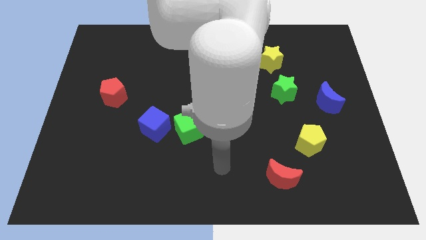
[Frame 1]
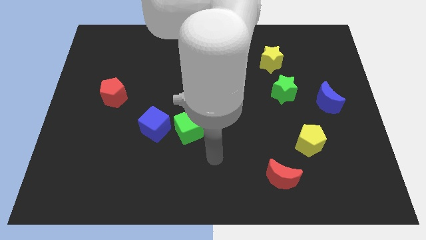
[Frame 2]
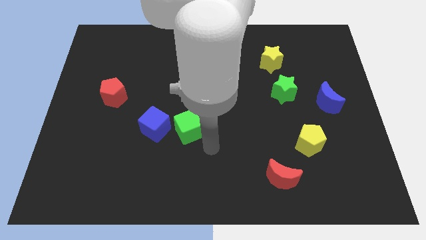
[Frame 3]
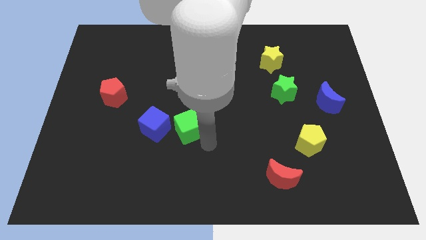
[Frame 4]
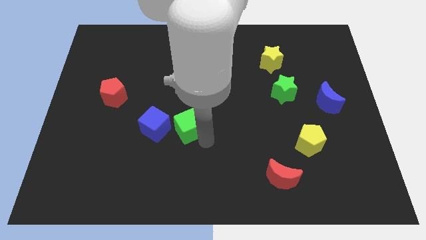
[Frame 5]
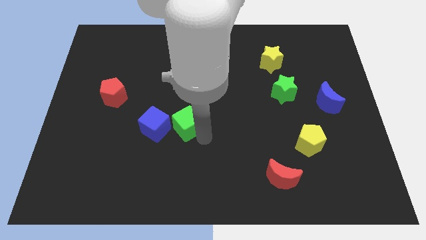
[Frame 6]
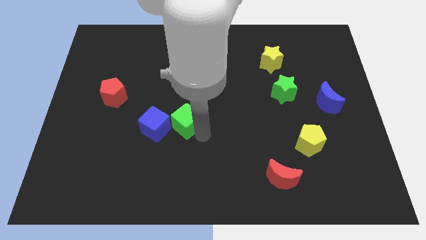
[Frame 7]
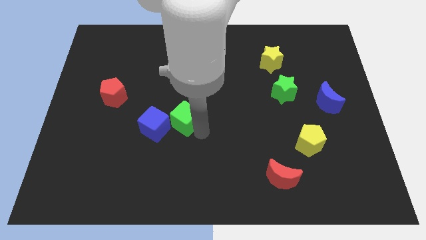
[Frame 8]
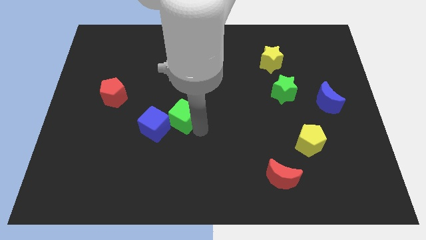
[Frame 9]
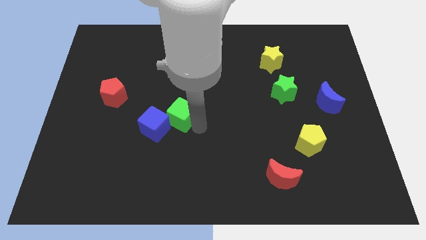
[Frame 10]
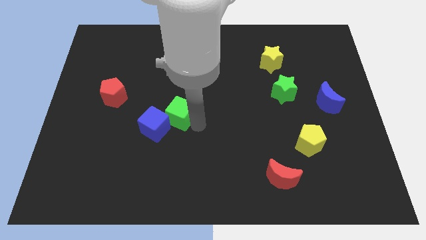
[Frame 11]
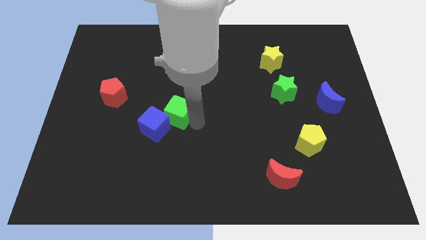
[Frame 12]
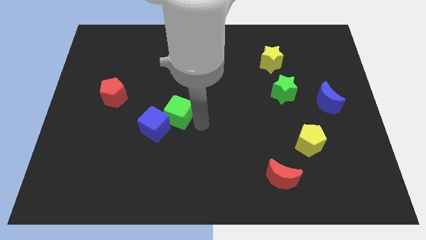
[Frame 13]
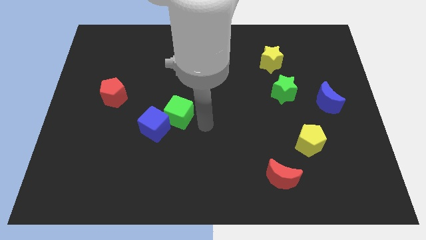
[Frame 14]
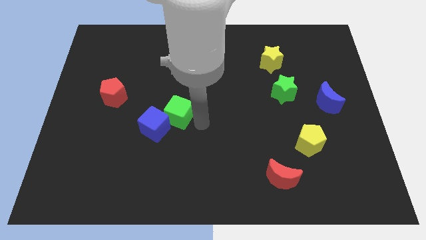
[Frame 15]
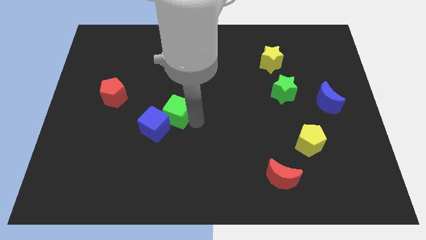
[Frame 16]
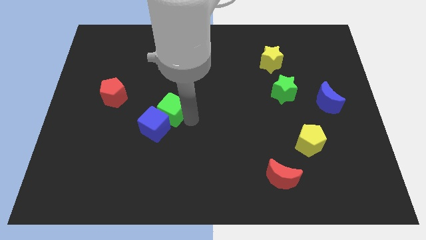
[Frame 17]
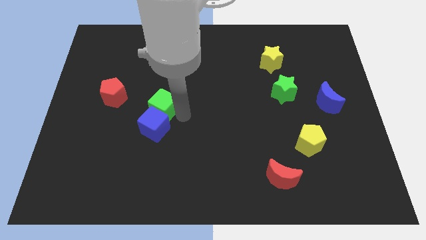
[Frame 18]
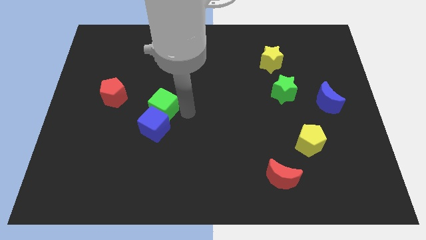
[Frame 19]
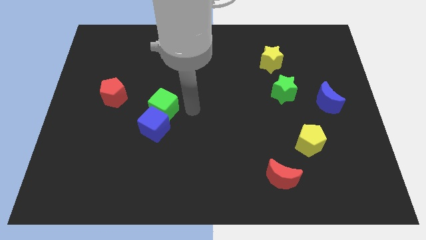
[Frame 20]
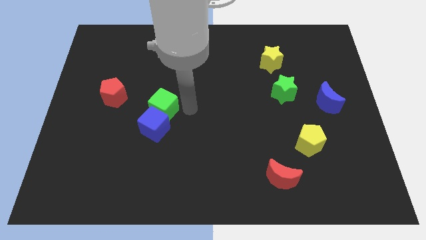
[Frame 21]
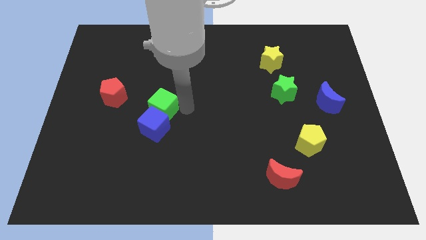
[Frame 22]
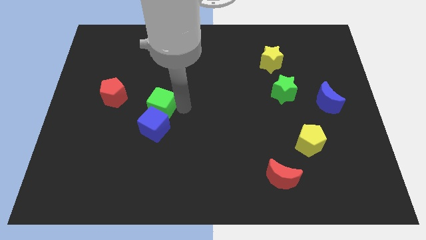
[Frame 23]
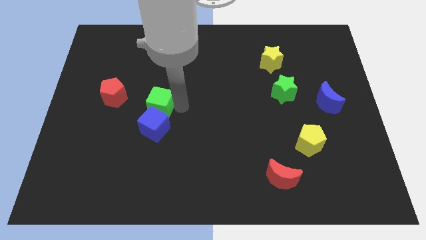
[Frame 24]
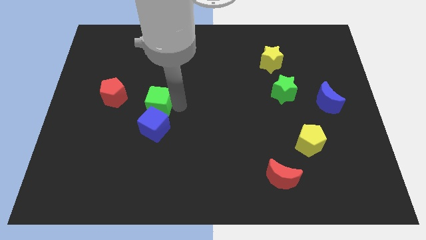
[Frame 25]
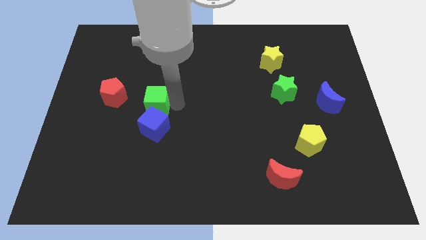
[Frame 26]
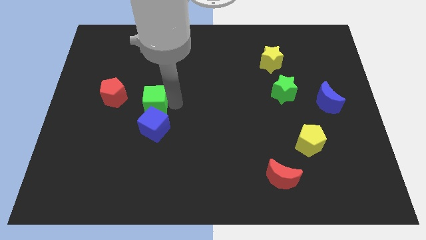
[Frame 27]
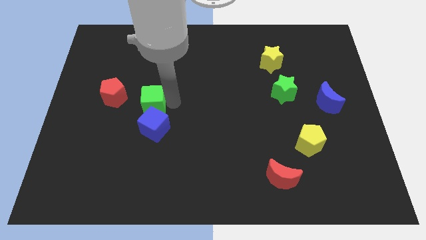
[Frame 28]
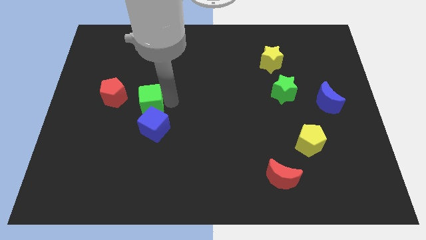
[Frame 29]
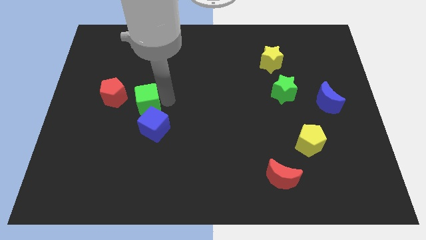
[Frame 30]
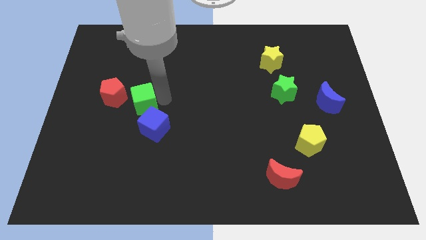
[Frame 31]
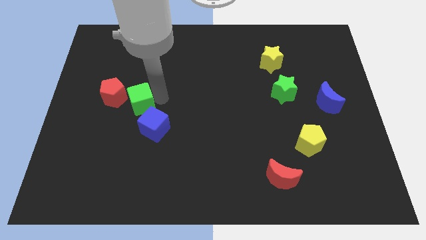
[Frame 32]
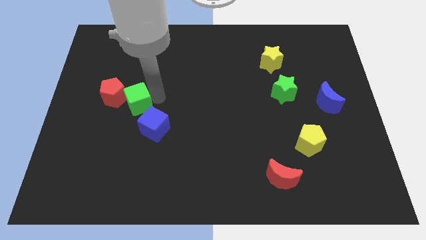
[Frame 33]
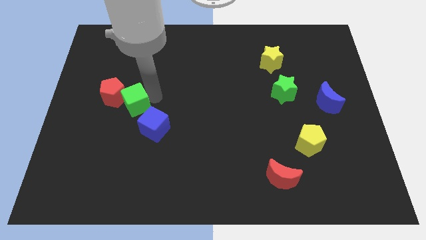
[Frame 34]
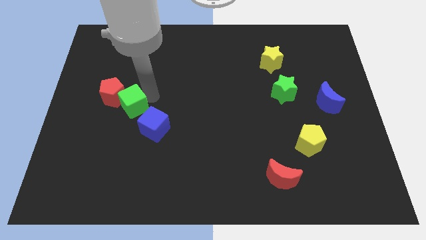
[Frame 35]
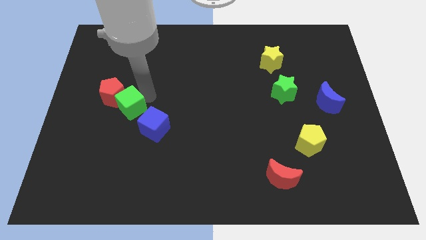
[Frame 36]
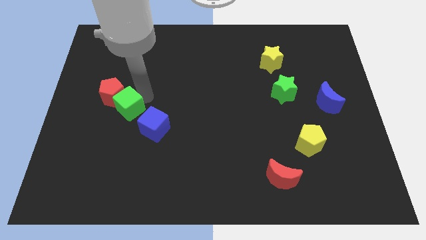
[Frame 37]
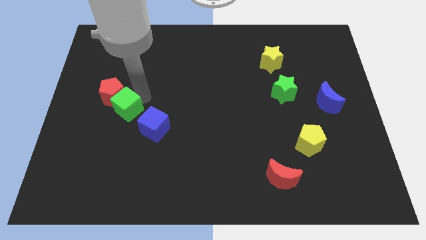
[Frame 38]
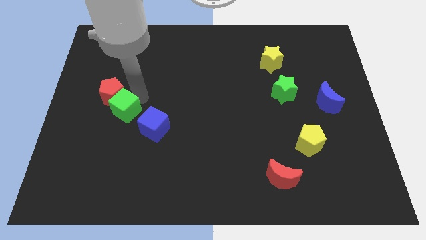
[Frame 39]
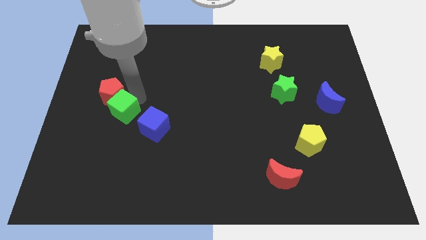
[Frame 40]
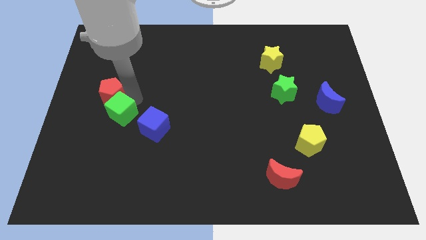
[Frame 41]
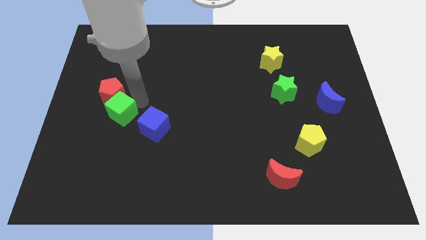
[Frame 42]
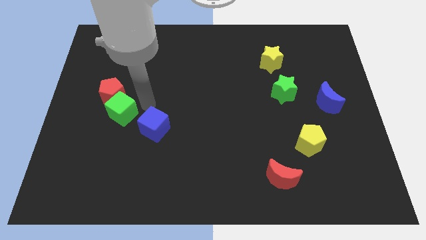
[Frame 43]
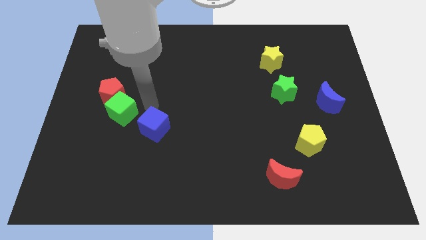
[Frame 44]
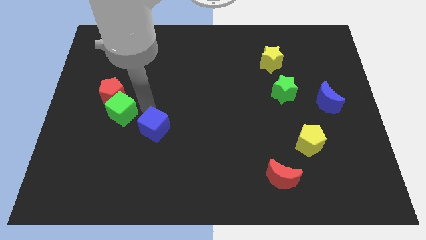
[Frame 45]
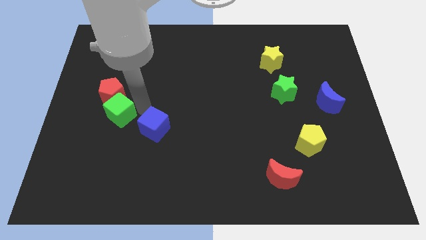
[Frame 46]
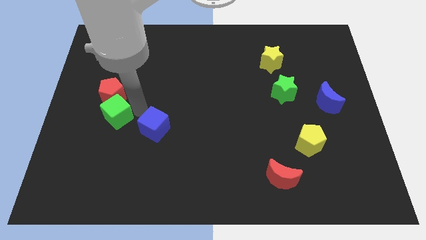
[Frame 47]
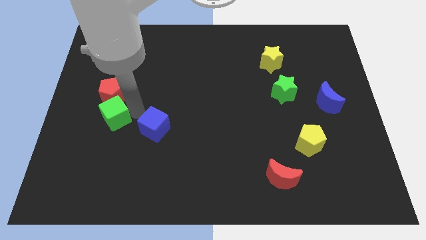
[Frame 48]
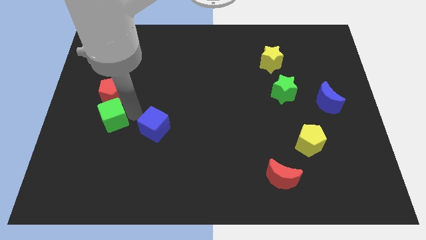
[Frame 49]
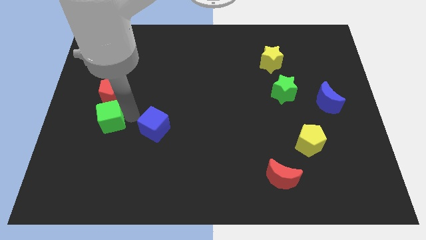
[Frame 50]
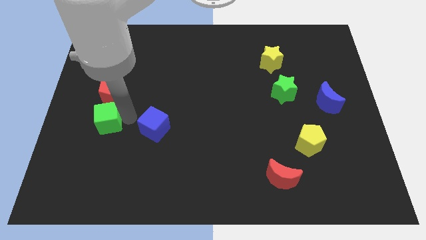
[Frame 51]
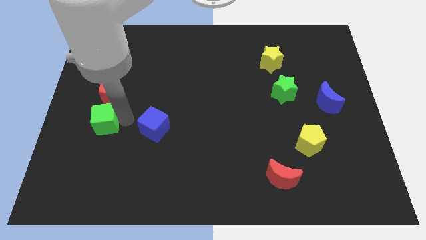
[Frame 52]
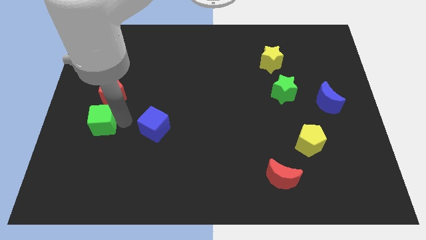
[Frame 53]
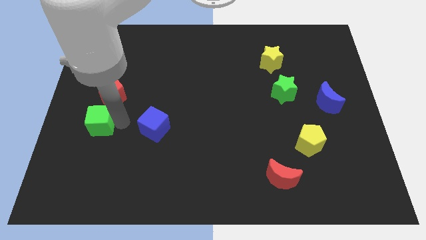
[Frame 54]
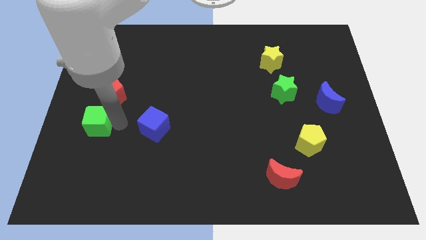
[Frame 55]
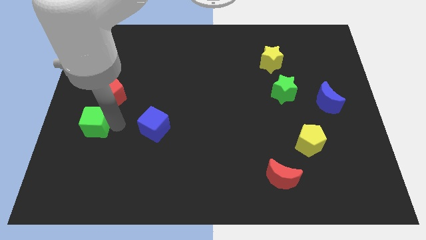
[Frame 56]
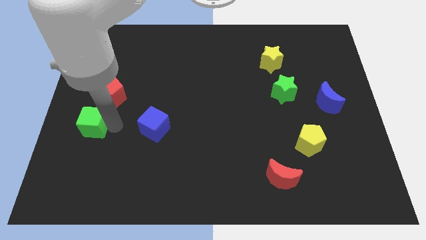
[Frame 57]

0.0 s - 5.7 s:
slide the green cube to the center left

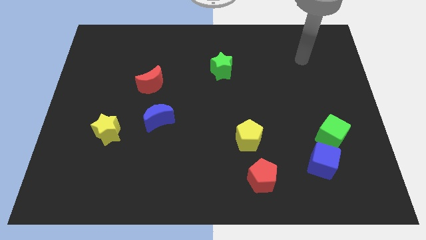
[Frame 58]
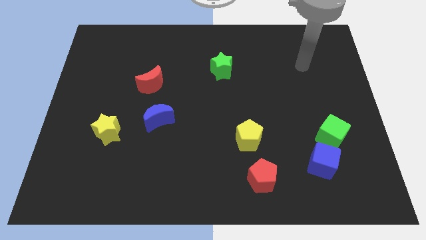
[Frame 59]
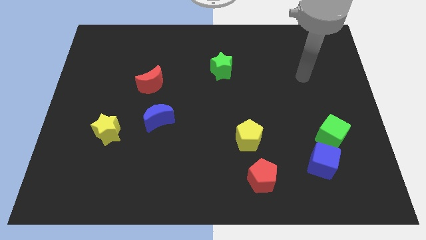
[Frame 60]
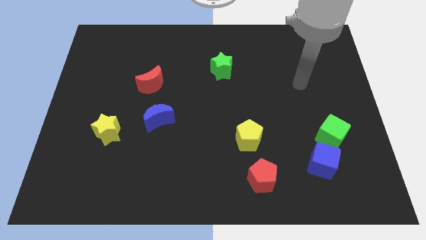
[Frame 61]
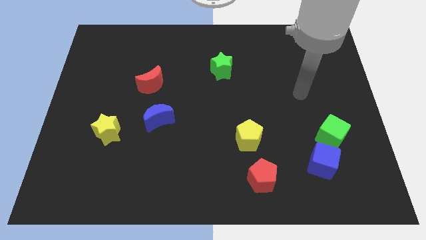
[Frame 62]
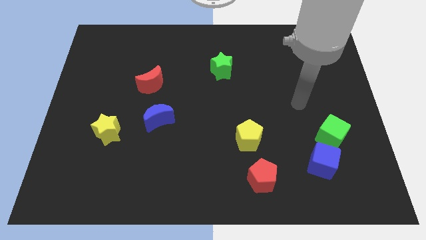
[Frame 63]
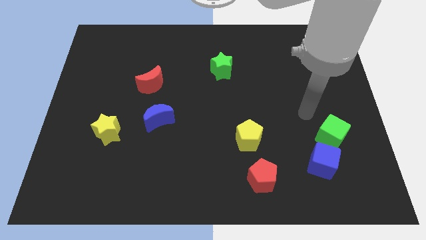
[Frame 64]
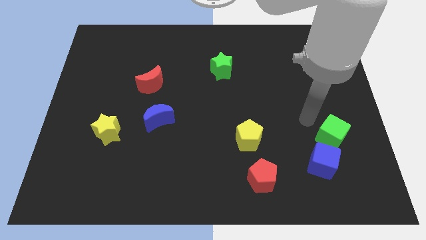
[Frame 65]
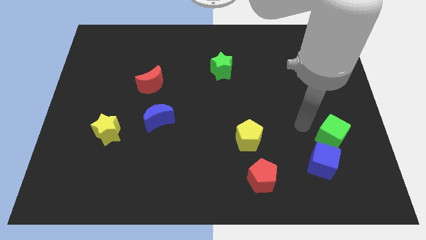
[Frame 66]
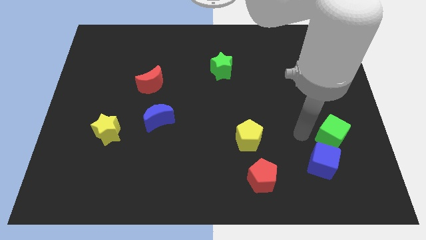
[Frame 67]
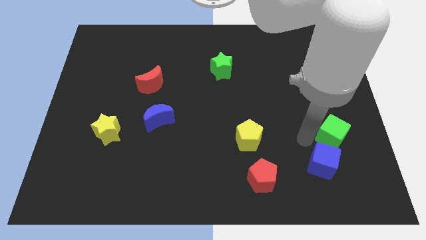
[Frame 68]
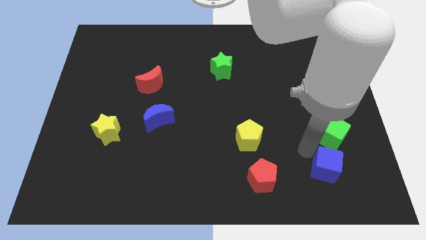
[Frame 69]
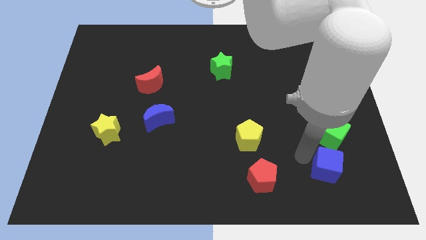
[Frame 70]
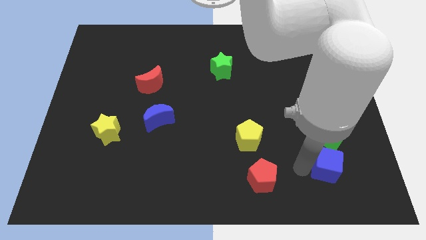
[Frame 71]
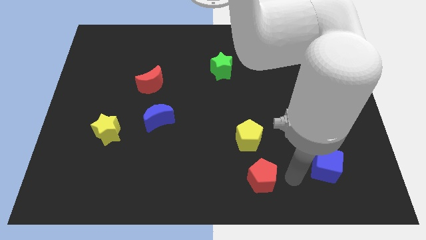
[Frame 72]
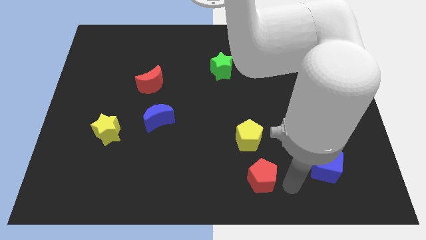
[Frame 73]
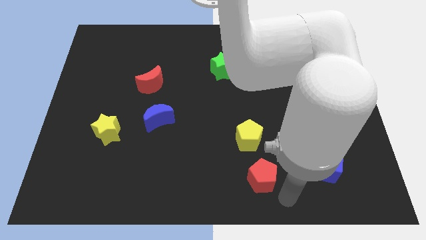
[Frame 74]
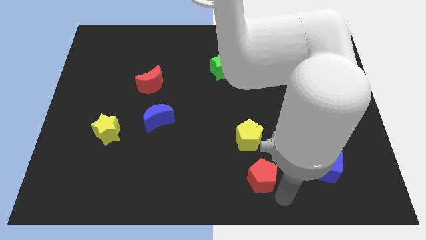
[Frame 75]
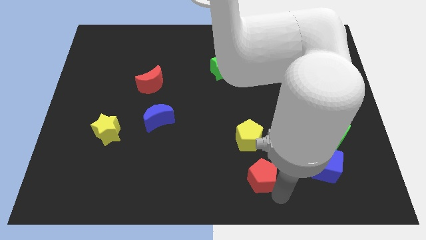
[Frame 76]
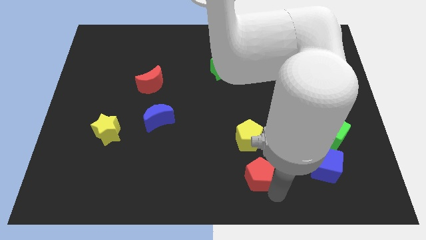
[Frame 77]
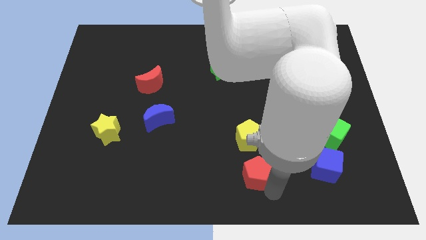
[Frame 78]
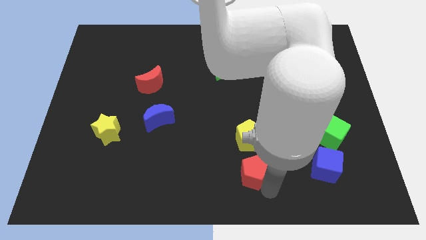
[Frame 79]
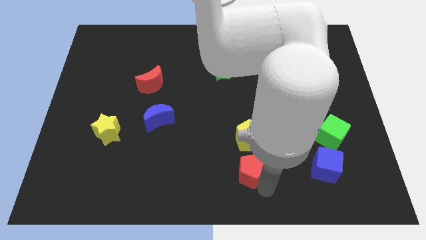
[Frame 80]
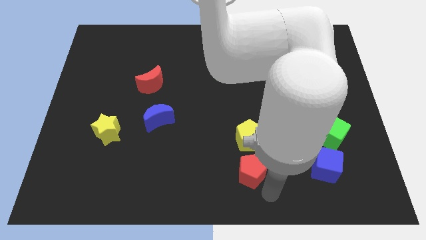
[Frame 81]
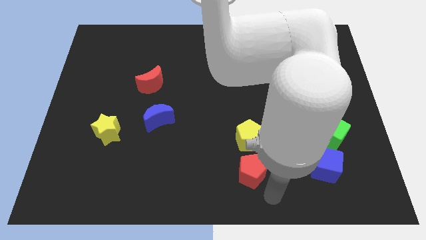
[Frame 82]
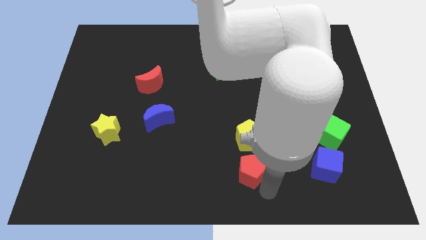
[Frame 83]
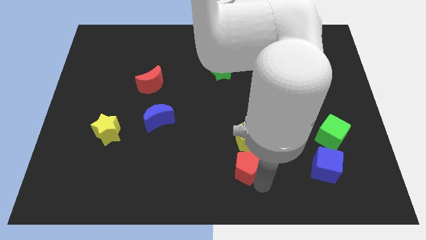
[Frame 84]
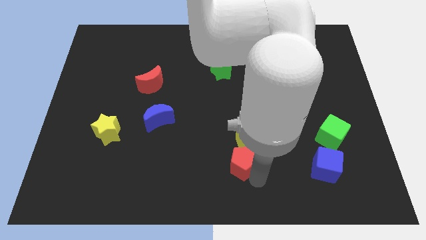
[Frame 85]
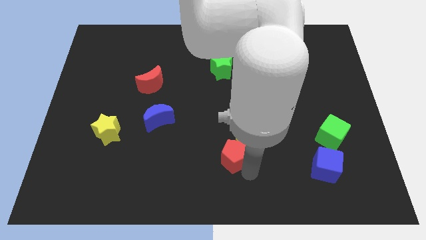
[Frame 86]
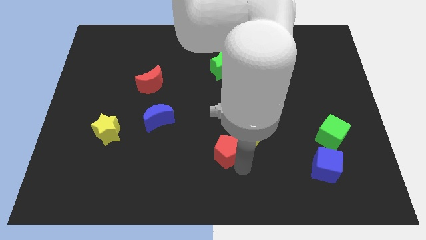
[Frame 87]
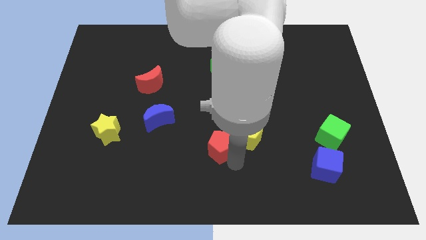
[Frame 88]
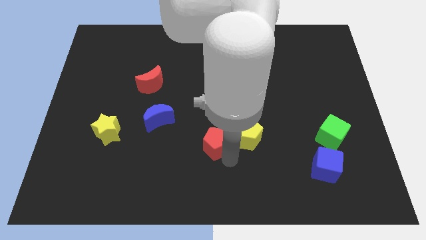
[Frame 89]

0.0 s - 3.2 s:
move the red pentagon to the center
